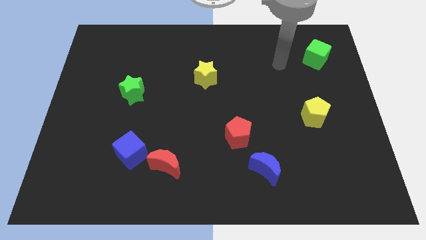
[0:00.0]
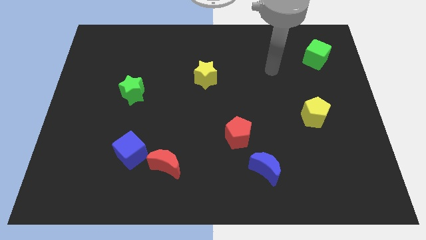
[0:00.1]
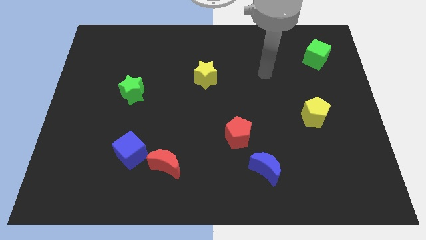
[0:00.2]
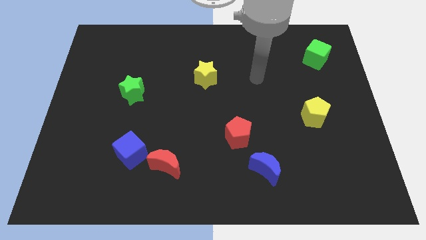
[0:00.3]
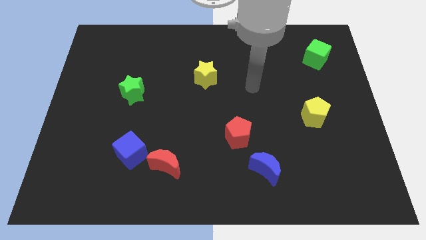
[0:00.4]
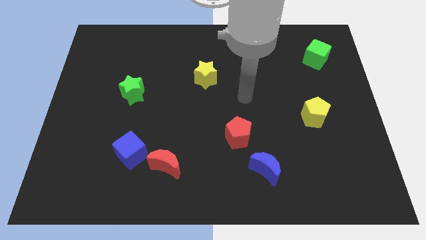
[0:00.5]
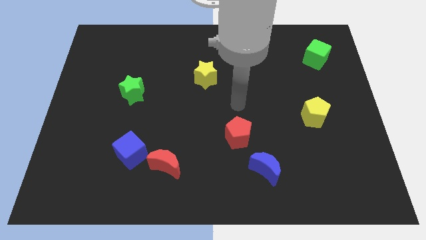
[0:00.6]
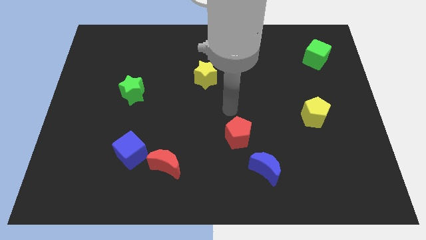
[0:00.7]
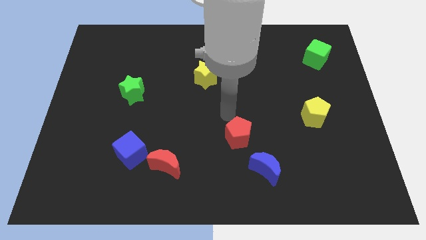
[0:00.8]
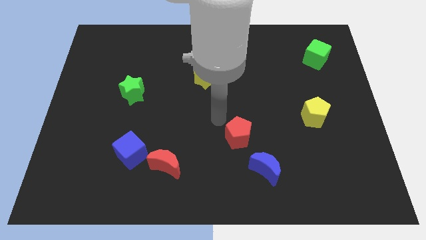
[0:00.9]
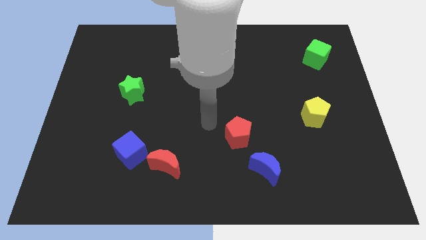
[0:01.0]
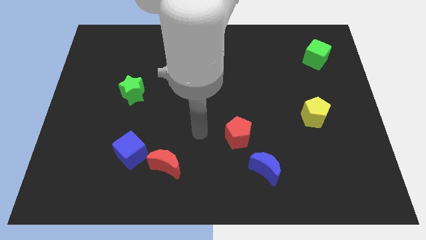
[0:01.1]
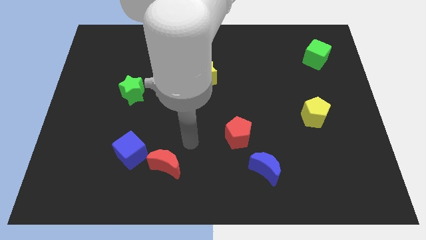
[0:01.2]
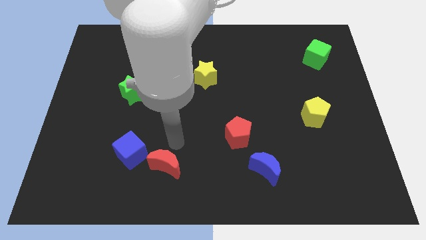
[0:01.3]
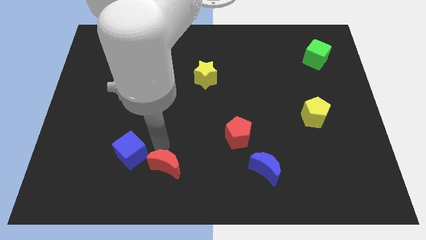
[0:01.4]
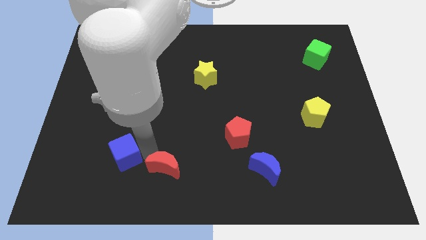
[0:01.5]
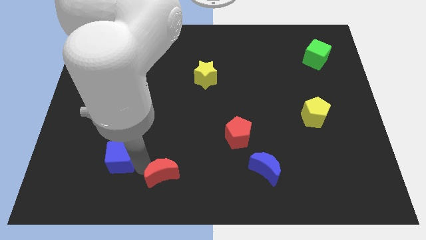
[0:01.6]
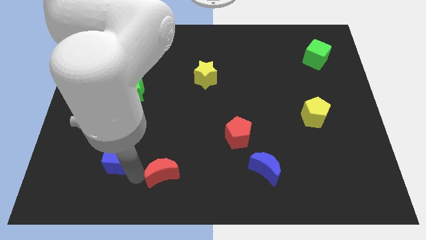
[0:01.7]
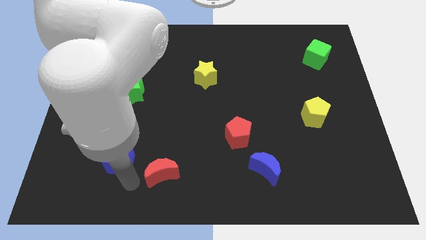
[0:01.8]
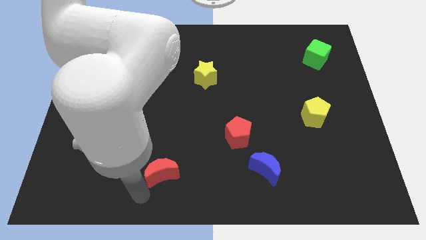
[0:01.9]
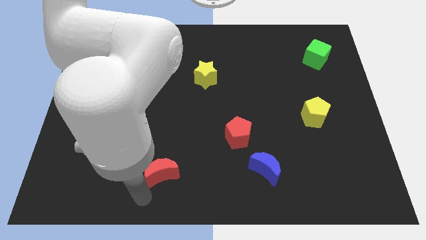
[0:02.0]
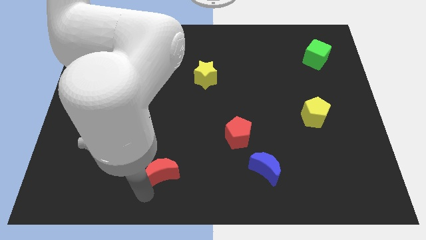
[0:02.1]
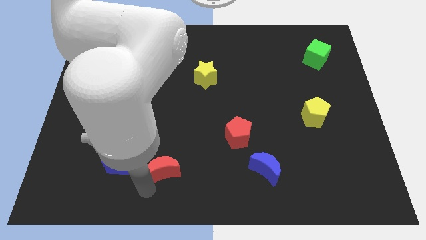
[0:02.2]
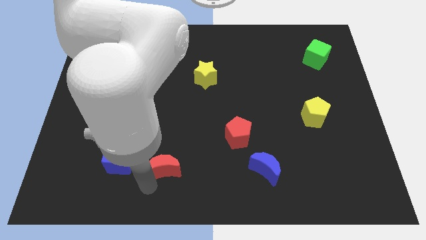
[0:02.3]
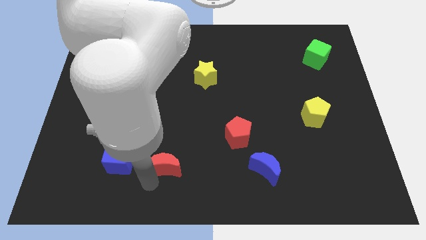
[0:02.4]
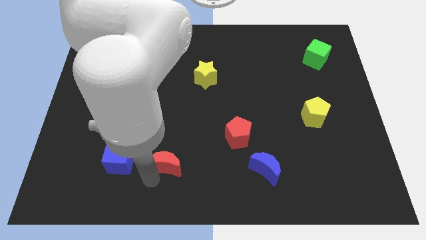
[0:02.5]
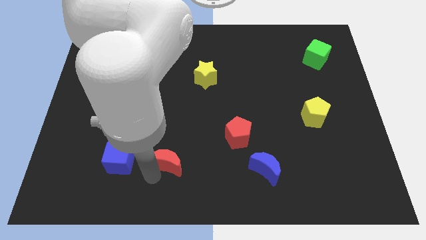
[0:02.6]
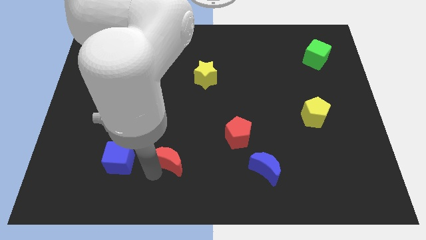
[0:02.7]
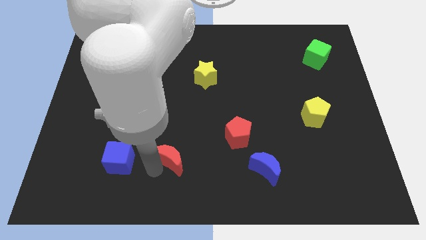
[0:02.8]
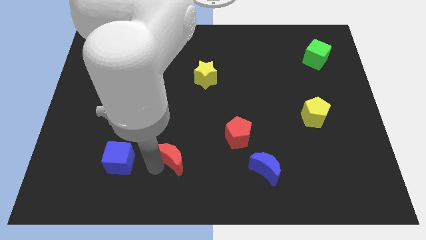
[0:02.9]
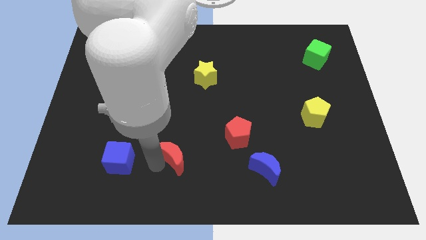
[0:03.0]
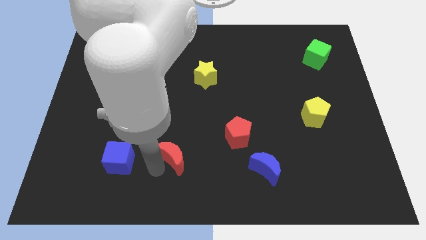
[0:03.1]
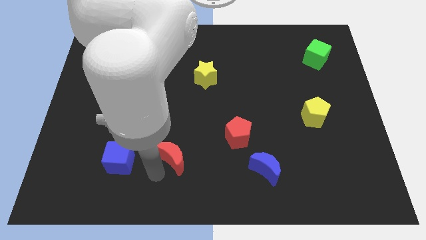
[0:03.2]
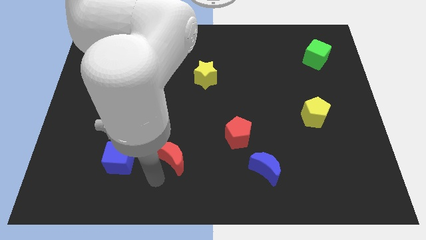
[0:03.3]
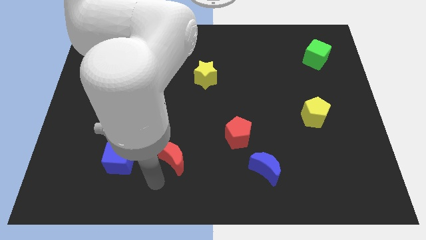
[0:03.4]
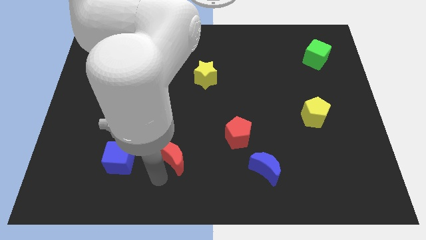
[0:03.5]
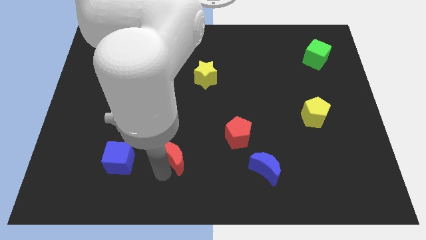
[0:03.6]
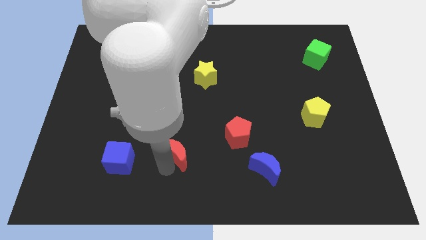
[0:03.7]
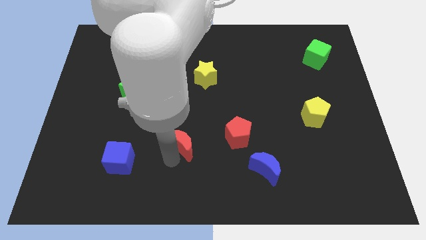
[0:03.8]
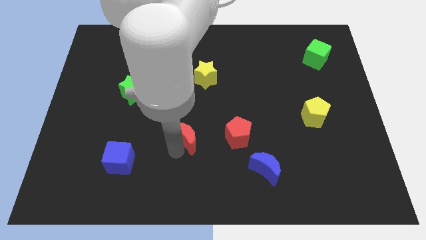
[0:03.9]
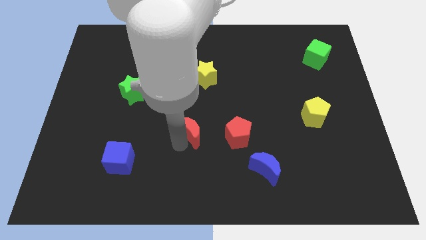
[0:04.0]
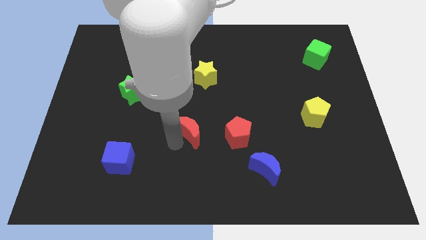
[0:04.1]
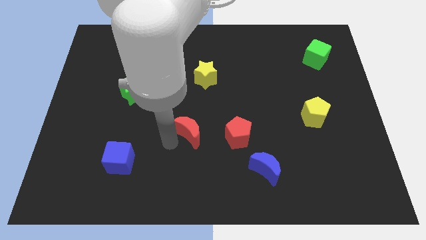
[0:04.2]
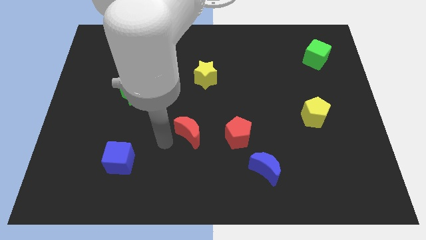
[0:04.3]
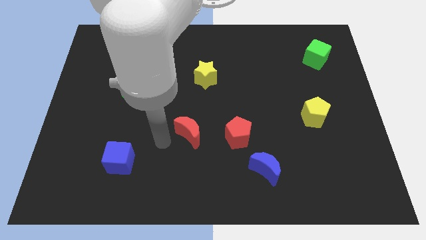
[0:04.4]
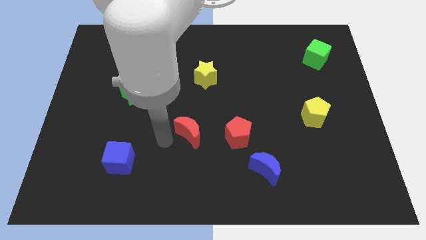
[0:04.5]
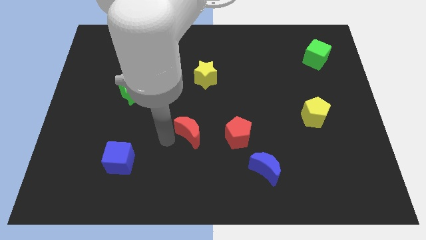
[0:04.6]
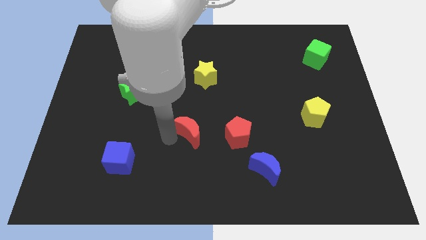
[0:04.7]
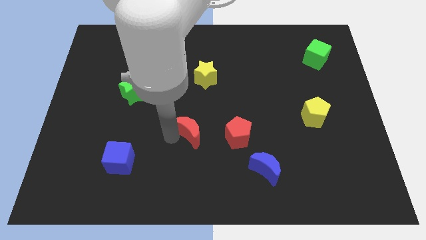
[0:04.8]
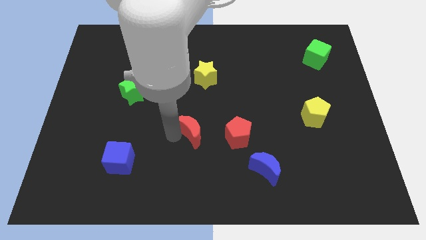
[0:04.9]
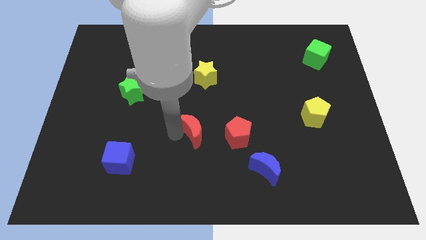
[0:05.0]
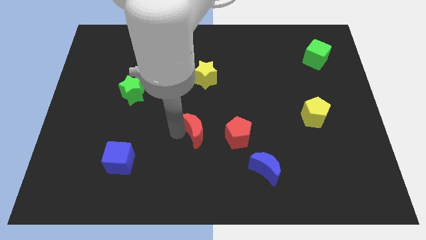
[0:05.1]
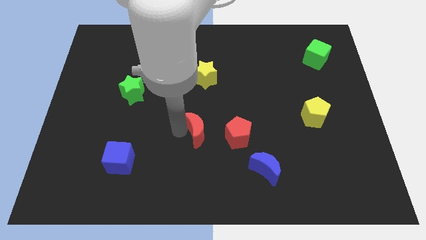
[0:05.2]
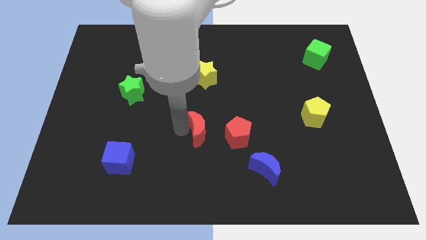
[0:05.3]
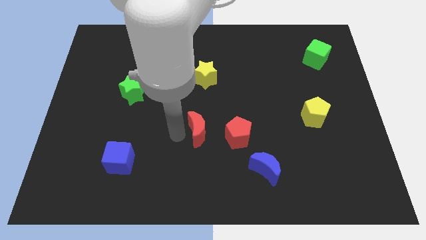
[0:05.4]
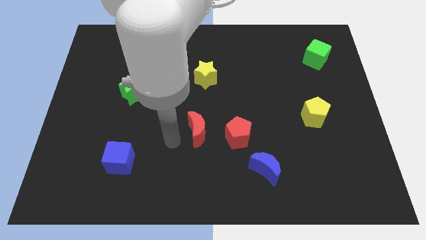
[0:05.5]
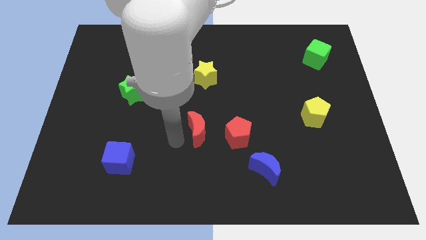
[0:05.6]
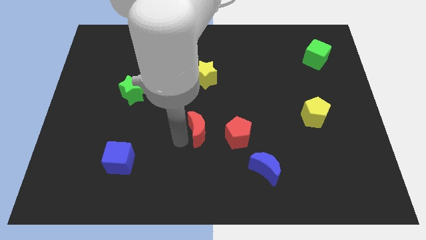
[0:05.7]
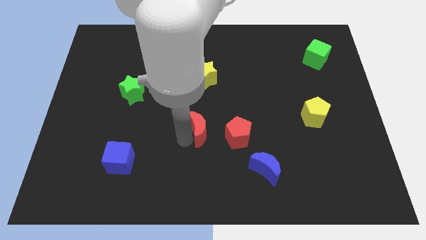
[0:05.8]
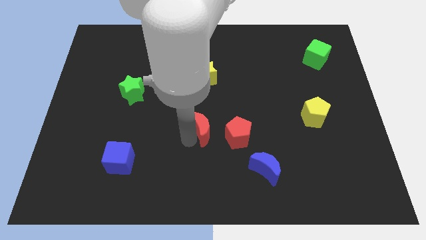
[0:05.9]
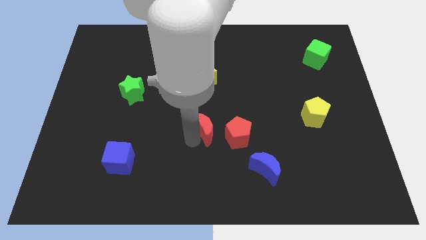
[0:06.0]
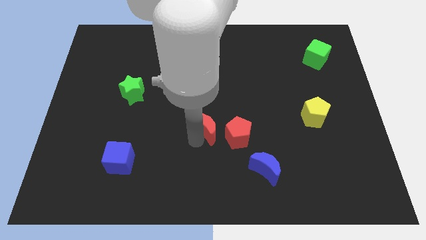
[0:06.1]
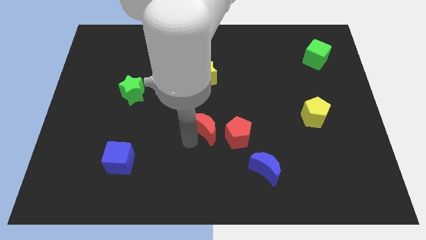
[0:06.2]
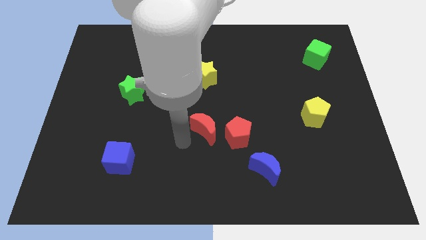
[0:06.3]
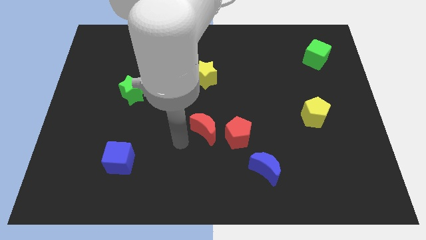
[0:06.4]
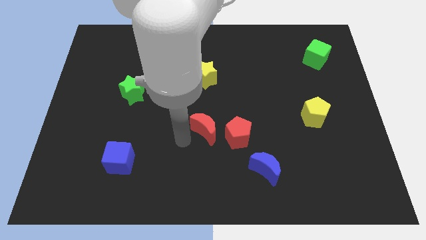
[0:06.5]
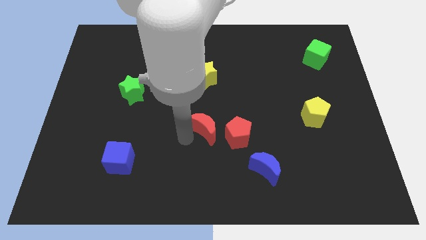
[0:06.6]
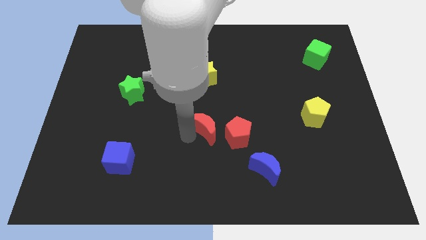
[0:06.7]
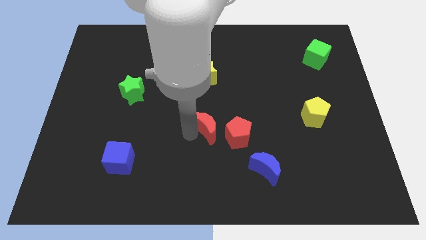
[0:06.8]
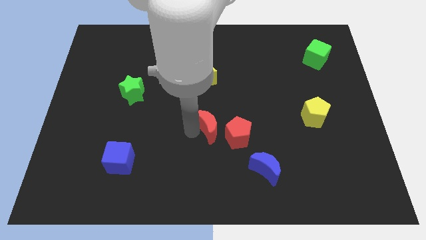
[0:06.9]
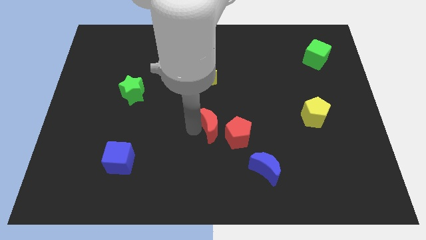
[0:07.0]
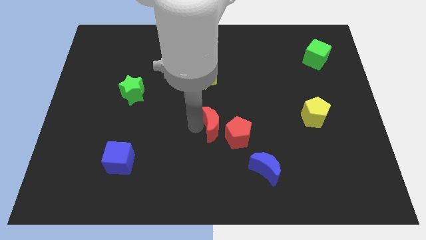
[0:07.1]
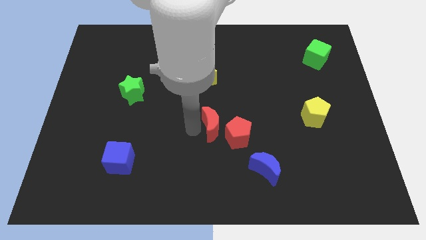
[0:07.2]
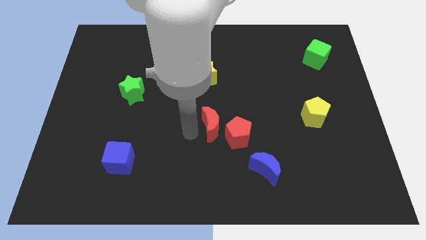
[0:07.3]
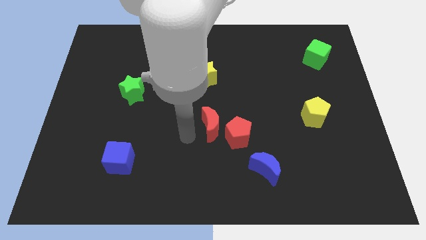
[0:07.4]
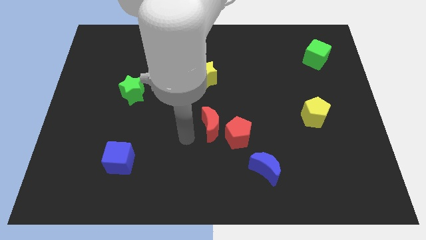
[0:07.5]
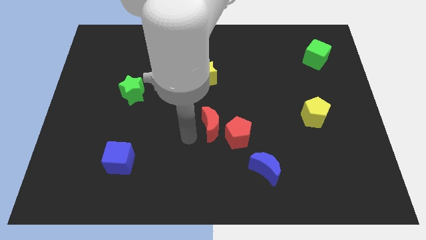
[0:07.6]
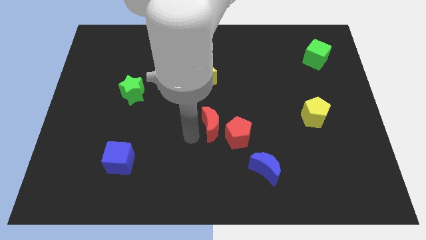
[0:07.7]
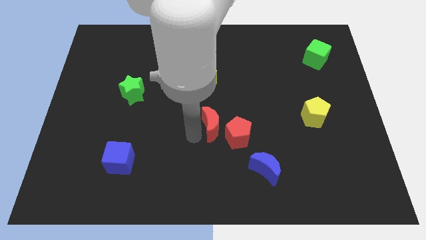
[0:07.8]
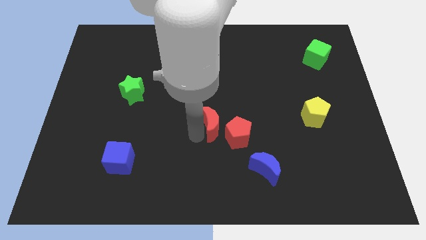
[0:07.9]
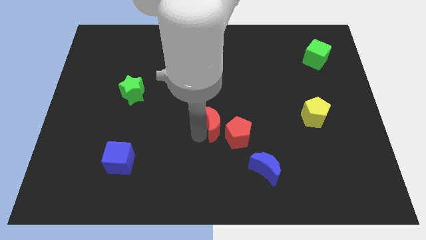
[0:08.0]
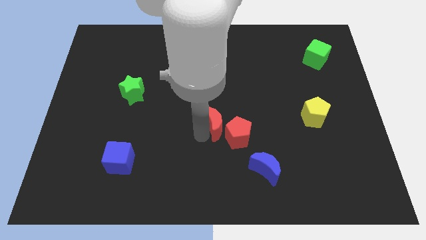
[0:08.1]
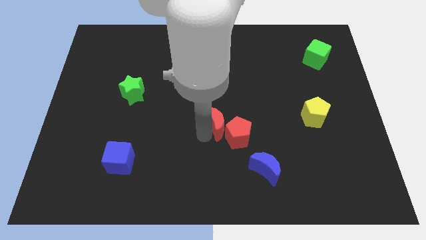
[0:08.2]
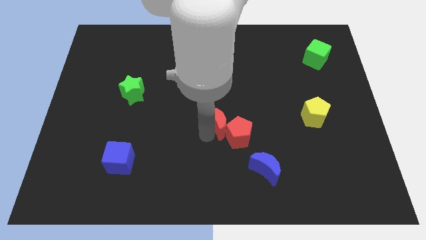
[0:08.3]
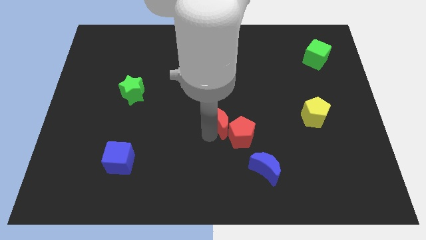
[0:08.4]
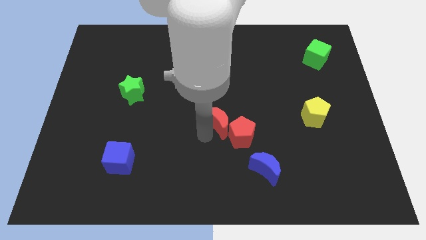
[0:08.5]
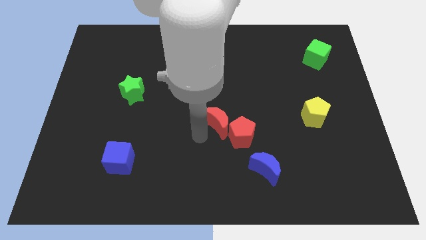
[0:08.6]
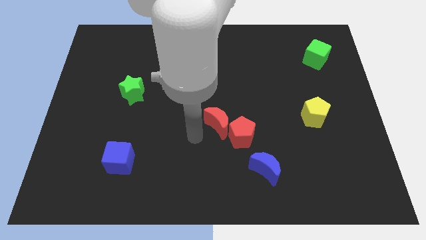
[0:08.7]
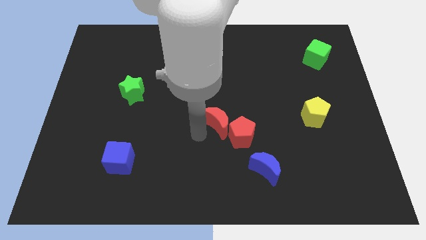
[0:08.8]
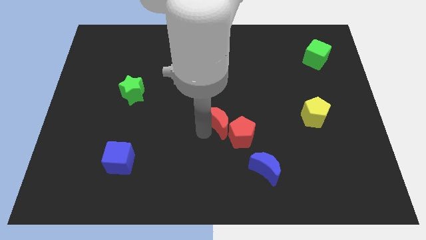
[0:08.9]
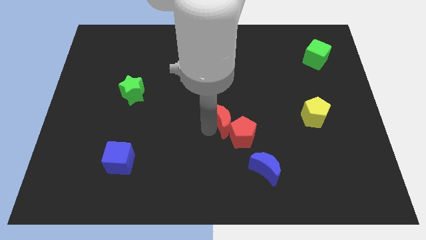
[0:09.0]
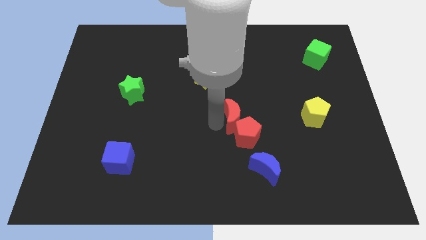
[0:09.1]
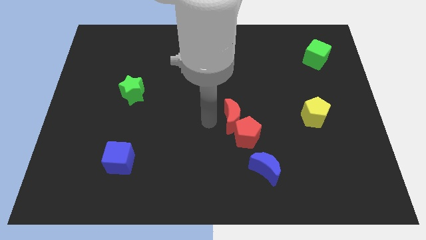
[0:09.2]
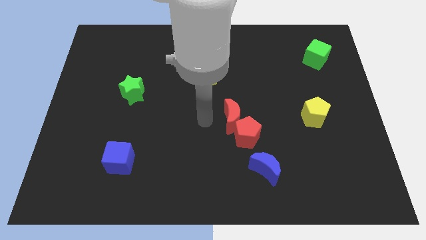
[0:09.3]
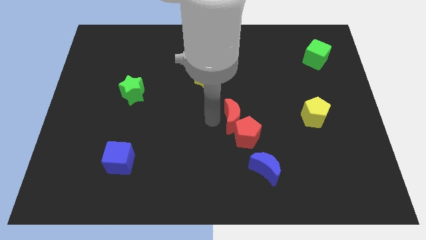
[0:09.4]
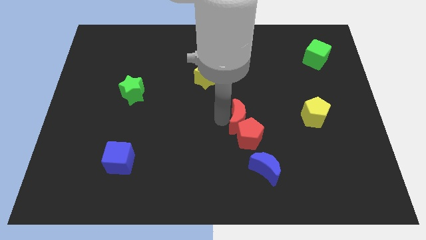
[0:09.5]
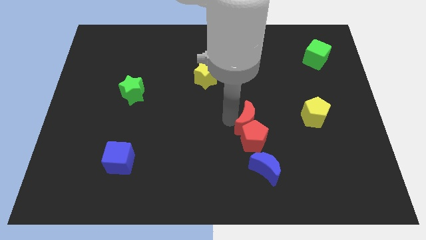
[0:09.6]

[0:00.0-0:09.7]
slide the red moon to the top right side of the red pentagon
